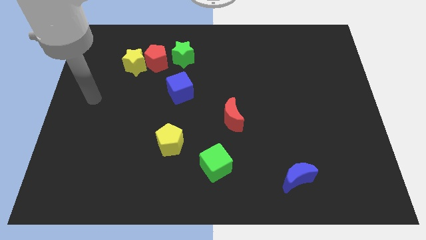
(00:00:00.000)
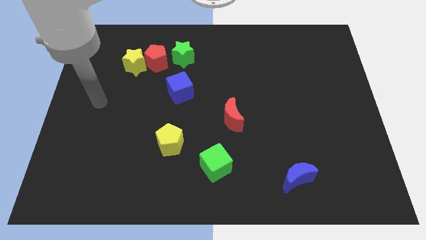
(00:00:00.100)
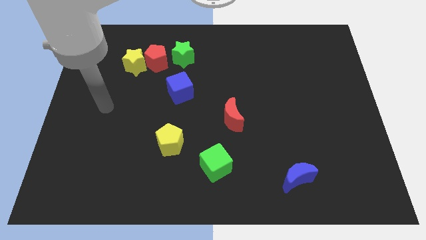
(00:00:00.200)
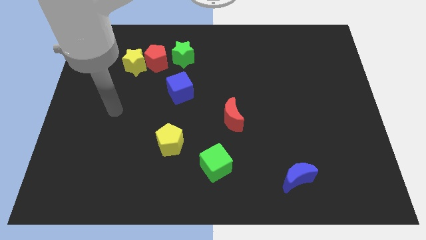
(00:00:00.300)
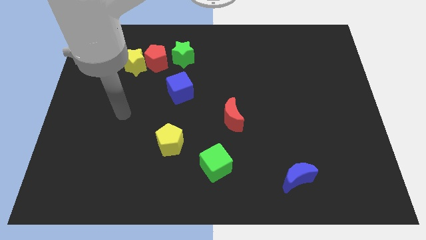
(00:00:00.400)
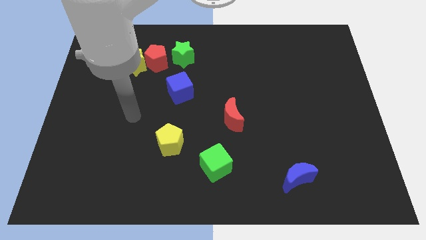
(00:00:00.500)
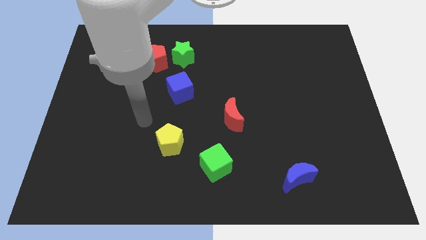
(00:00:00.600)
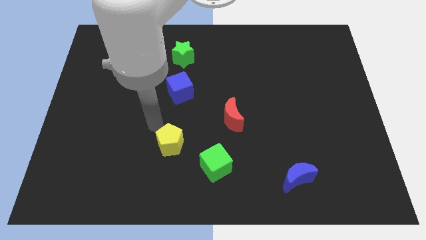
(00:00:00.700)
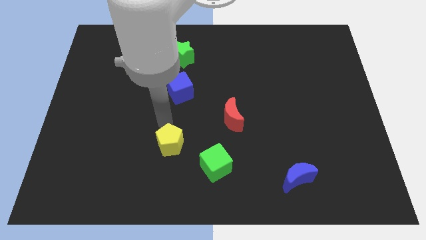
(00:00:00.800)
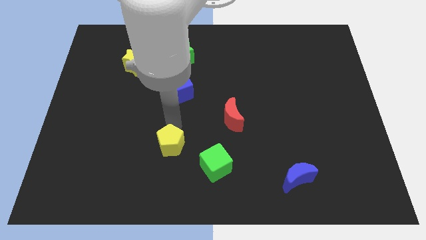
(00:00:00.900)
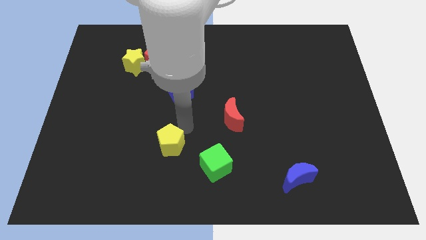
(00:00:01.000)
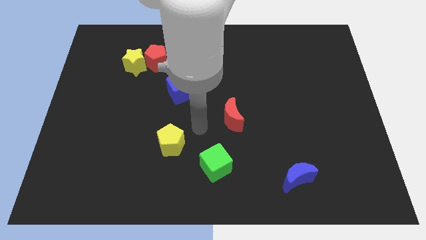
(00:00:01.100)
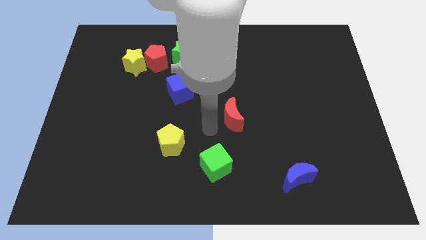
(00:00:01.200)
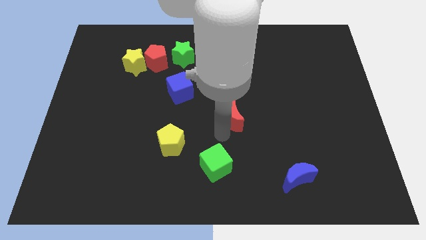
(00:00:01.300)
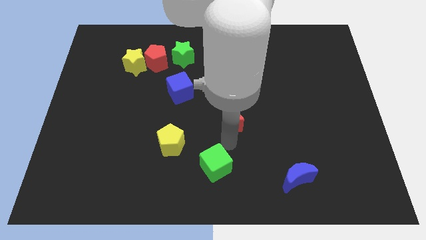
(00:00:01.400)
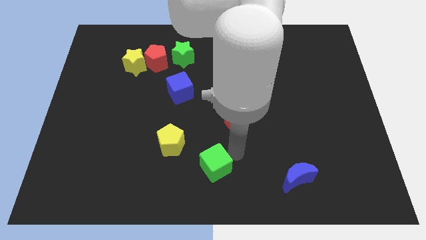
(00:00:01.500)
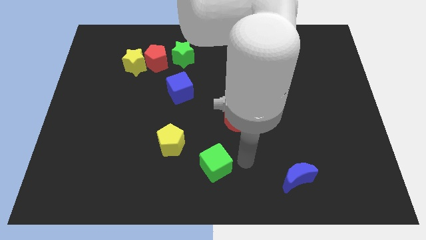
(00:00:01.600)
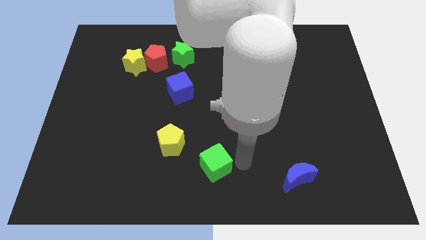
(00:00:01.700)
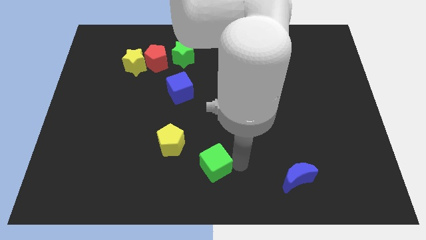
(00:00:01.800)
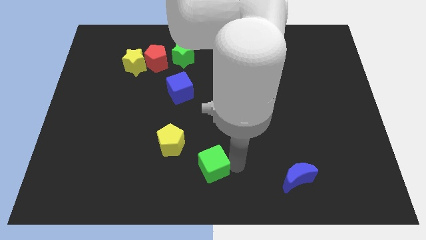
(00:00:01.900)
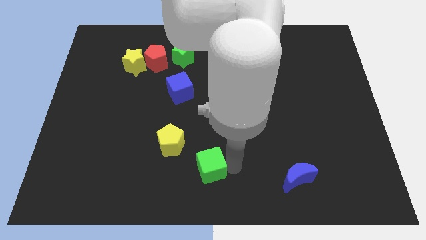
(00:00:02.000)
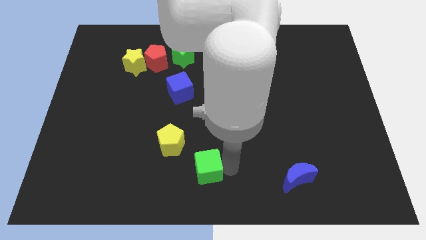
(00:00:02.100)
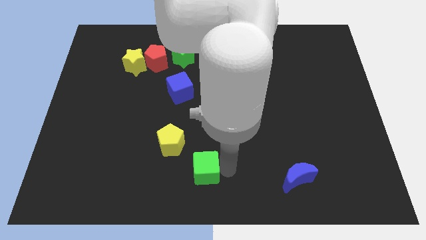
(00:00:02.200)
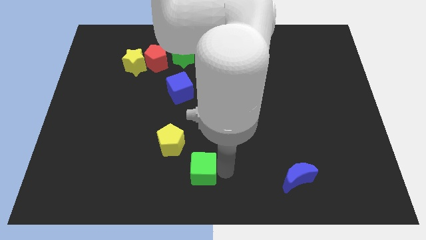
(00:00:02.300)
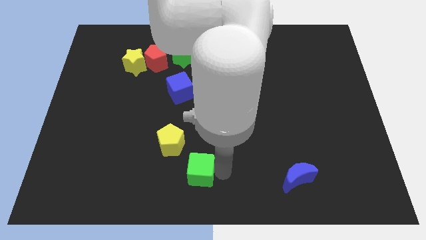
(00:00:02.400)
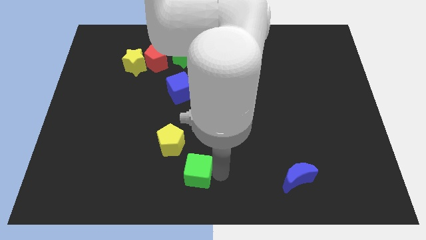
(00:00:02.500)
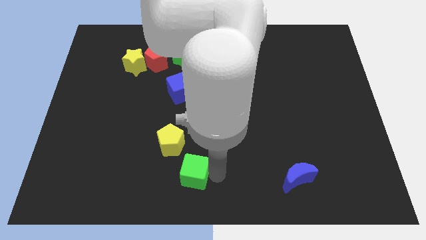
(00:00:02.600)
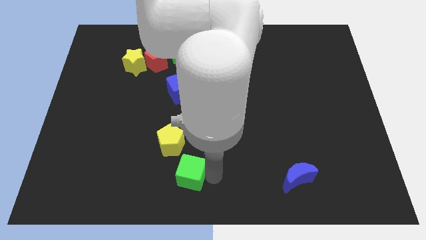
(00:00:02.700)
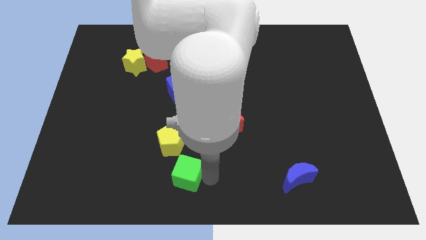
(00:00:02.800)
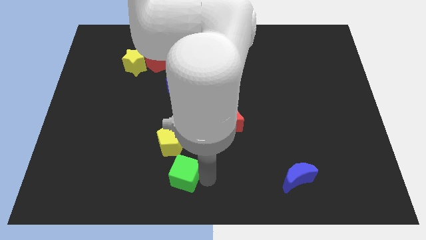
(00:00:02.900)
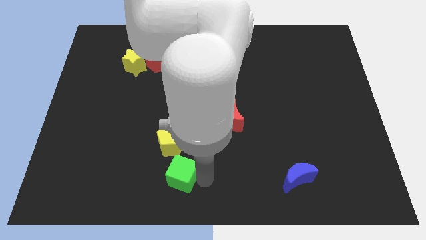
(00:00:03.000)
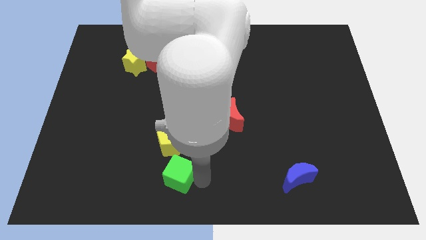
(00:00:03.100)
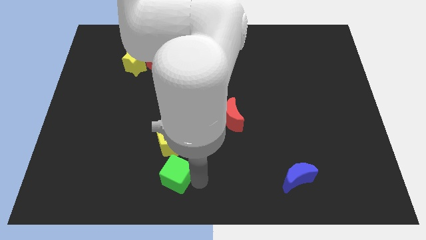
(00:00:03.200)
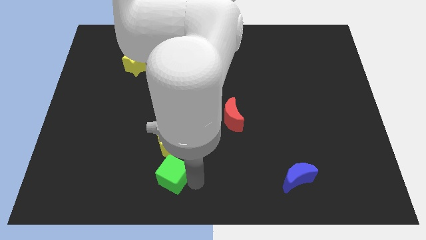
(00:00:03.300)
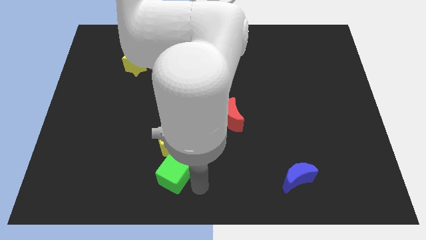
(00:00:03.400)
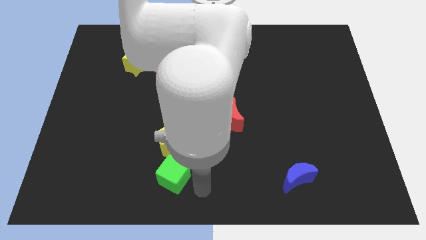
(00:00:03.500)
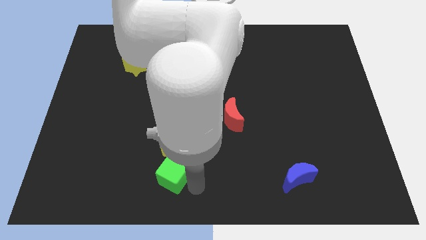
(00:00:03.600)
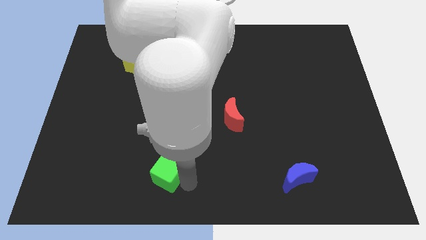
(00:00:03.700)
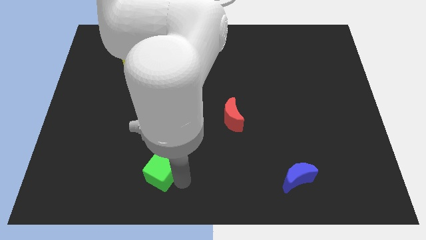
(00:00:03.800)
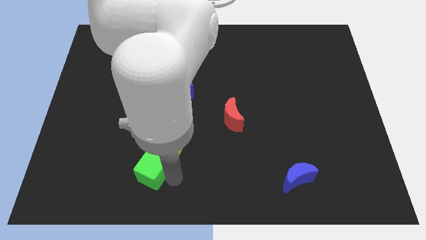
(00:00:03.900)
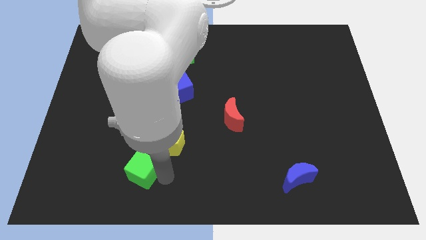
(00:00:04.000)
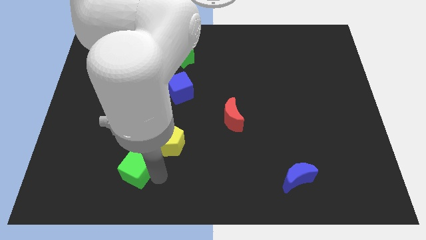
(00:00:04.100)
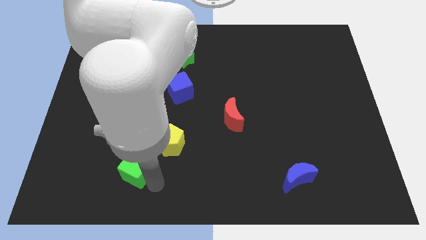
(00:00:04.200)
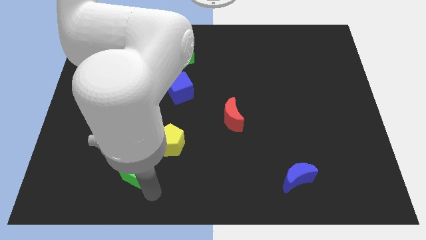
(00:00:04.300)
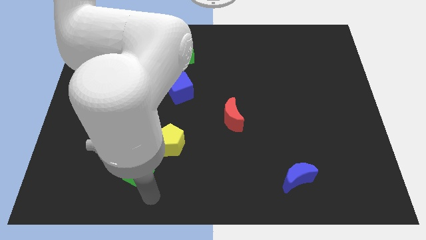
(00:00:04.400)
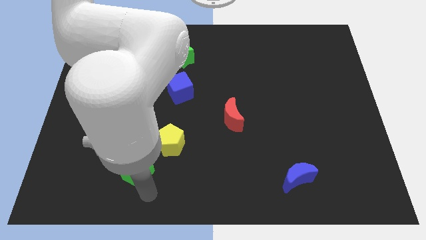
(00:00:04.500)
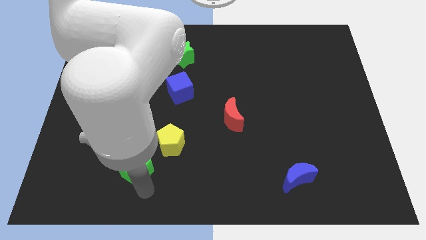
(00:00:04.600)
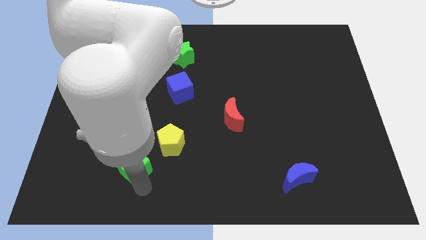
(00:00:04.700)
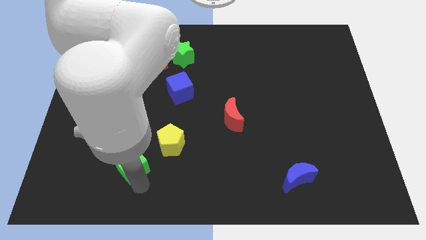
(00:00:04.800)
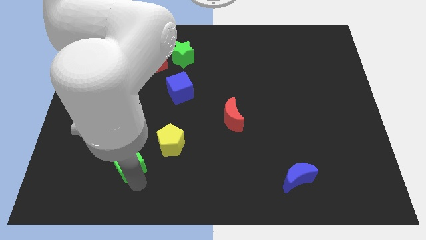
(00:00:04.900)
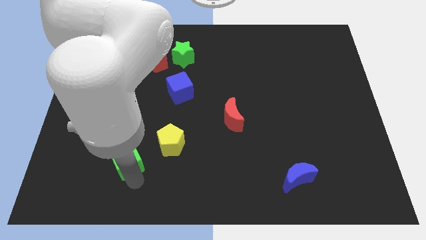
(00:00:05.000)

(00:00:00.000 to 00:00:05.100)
move the green cube to the left of the yellow pentagon

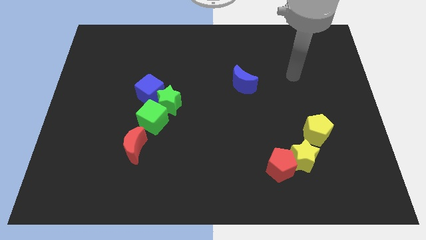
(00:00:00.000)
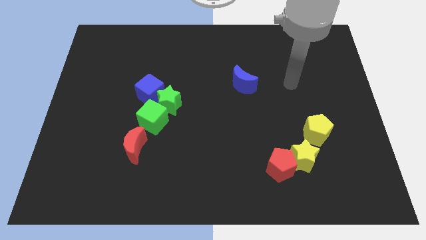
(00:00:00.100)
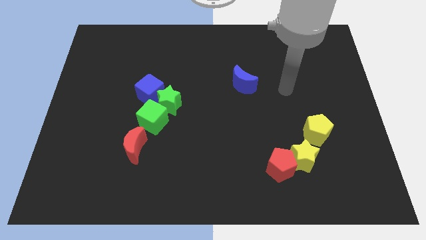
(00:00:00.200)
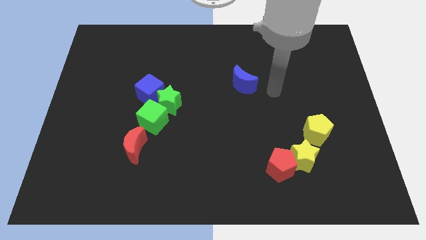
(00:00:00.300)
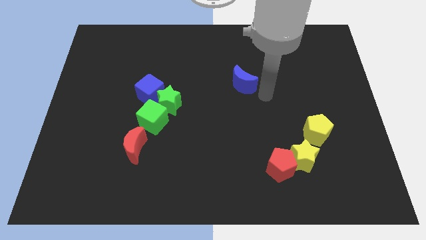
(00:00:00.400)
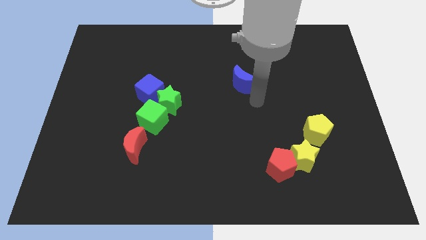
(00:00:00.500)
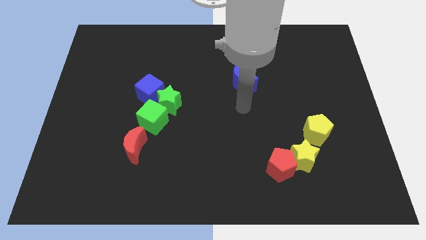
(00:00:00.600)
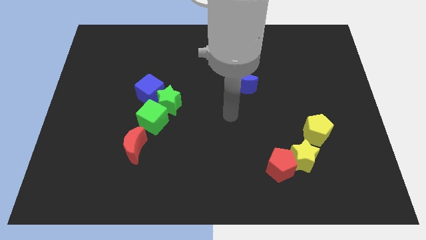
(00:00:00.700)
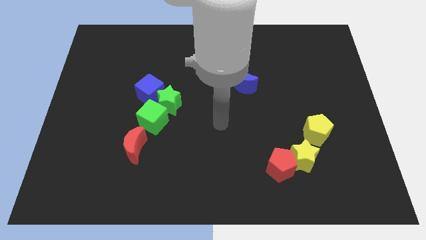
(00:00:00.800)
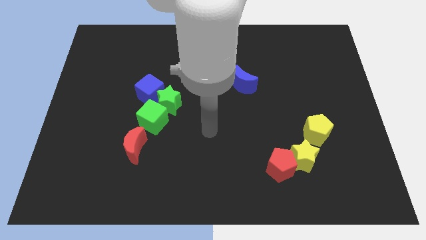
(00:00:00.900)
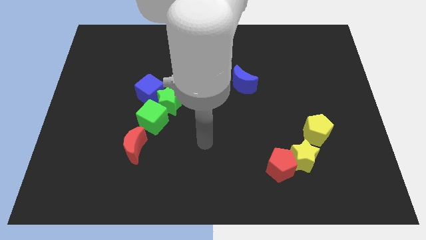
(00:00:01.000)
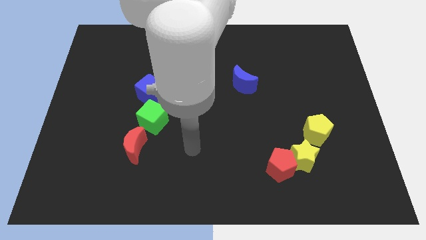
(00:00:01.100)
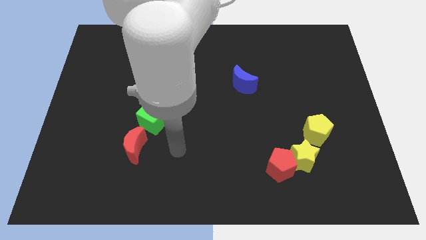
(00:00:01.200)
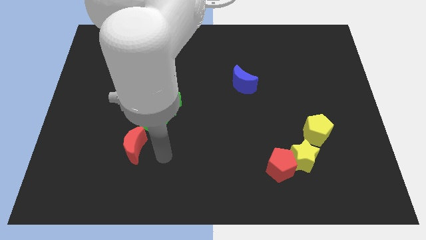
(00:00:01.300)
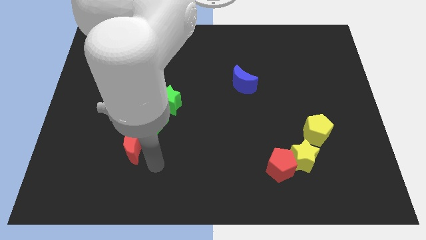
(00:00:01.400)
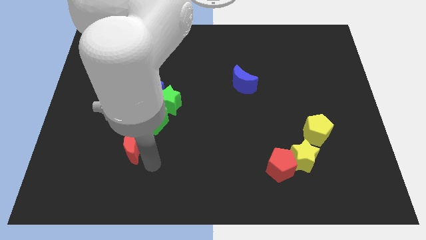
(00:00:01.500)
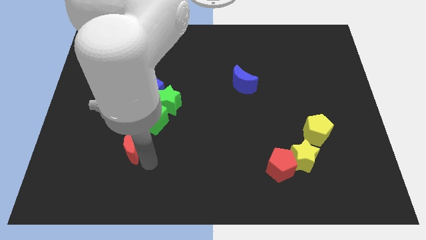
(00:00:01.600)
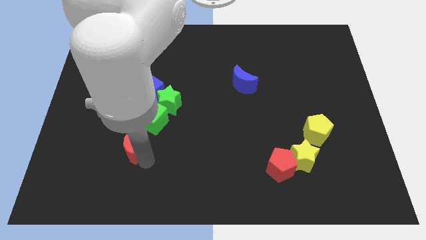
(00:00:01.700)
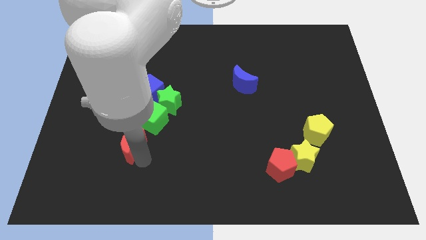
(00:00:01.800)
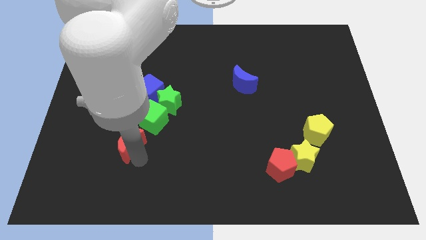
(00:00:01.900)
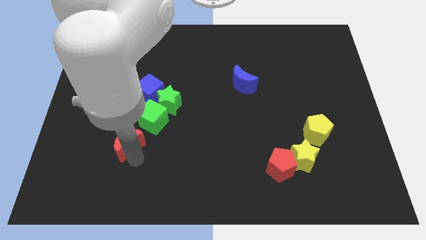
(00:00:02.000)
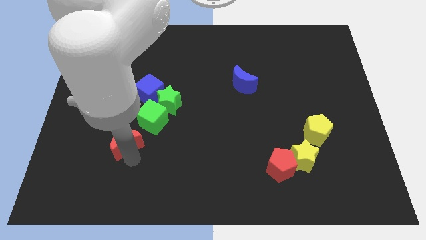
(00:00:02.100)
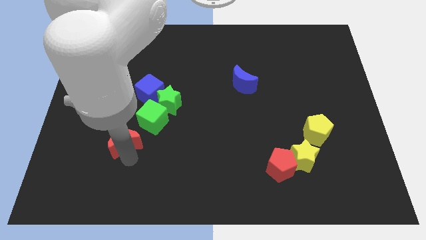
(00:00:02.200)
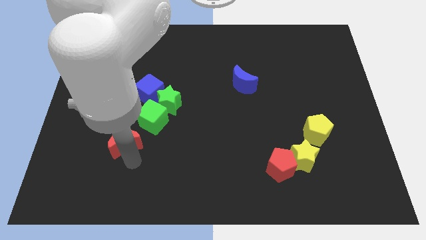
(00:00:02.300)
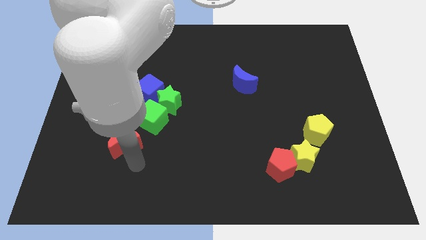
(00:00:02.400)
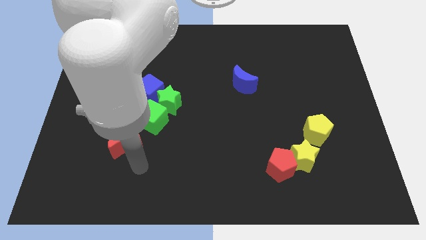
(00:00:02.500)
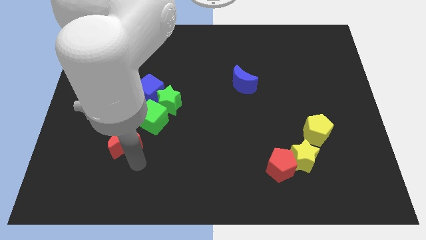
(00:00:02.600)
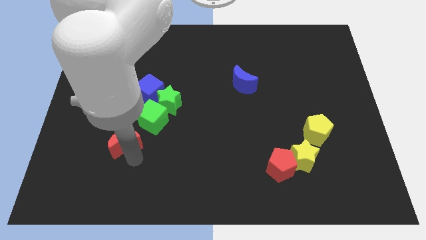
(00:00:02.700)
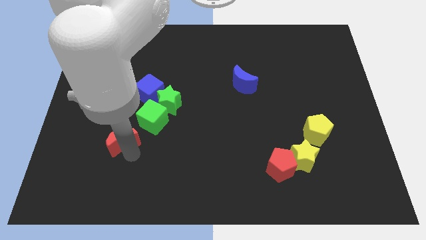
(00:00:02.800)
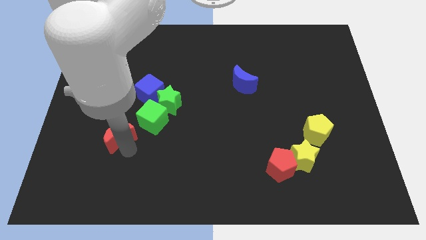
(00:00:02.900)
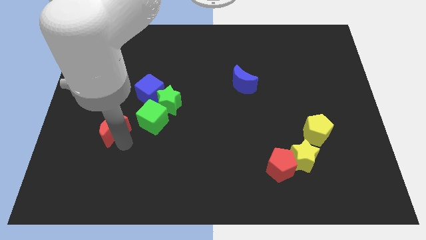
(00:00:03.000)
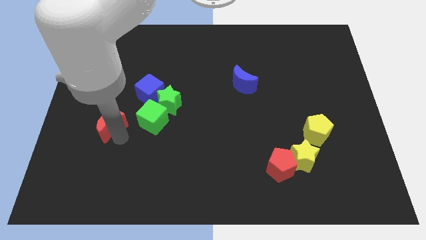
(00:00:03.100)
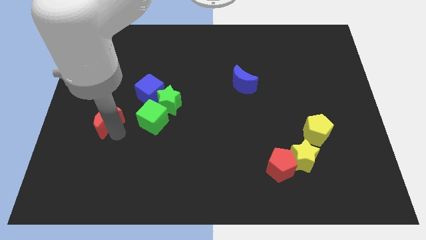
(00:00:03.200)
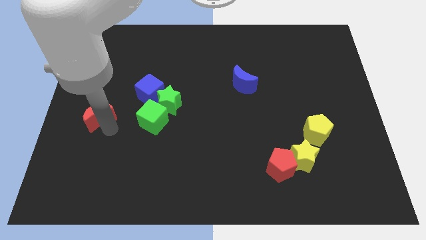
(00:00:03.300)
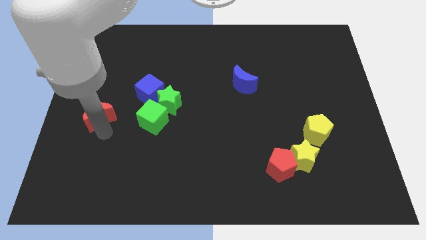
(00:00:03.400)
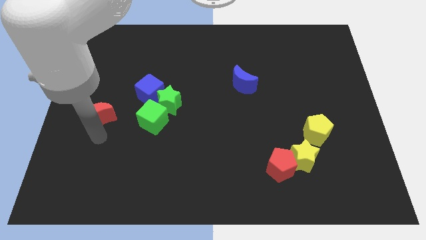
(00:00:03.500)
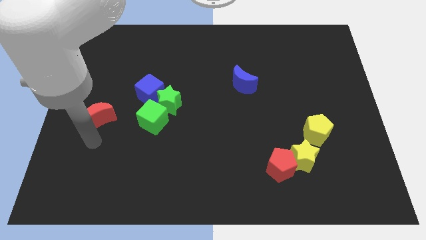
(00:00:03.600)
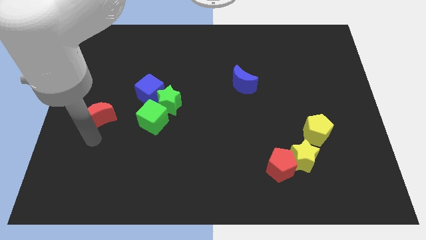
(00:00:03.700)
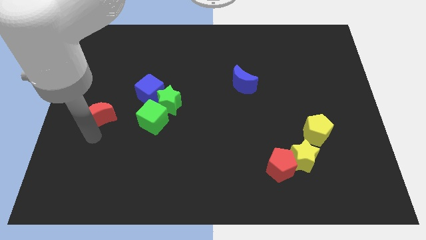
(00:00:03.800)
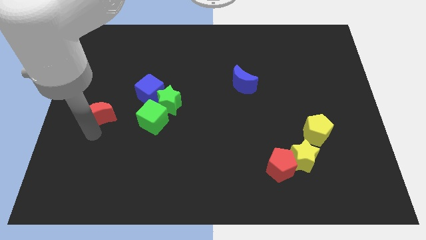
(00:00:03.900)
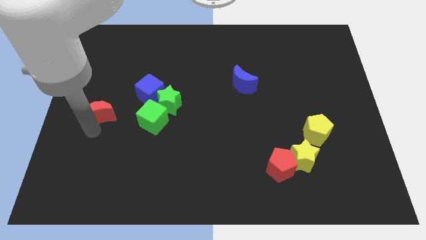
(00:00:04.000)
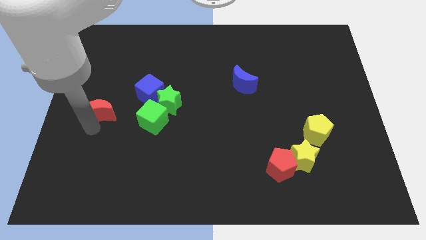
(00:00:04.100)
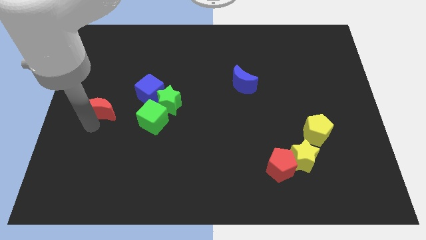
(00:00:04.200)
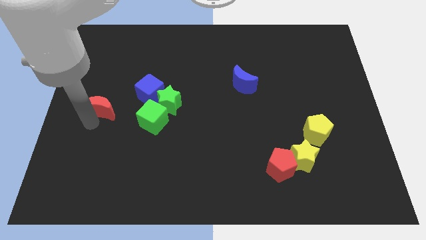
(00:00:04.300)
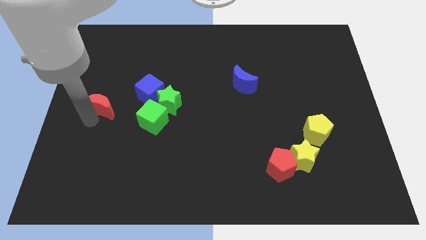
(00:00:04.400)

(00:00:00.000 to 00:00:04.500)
push the red moon to the left of the blue cube
